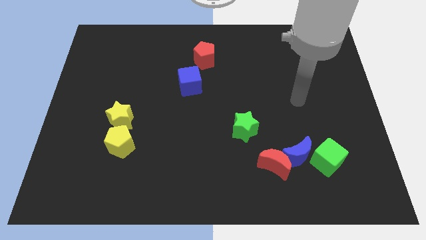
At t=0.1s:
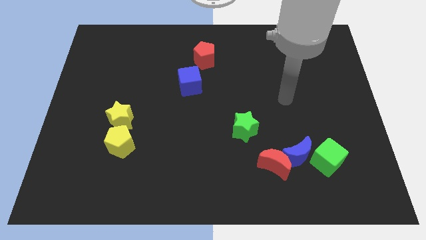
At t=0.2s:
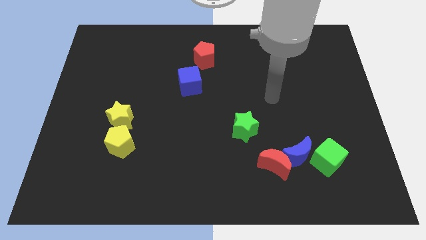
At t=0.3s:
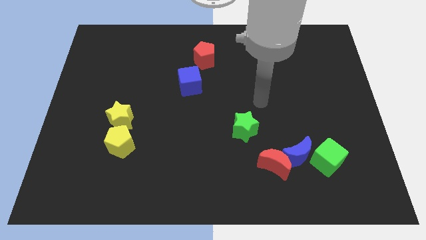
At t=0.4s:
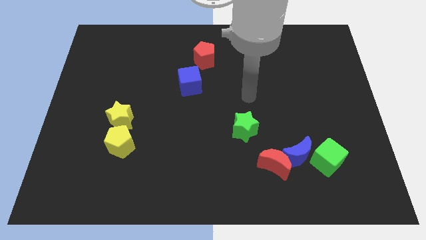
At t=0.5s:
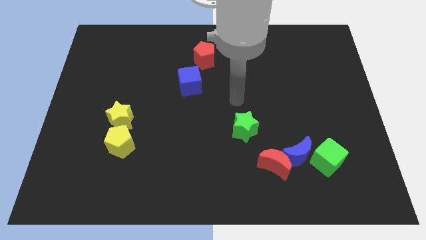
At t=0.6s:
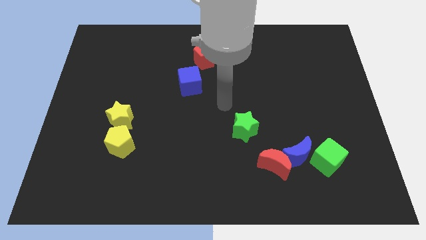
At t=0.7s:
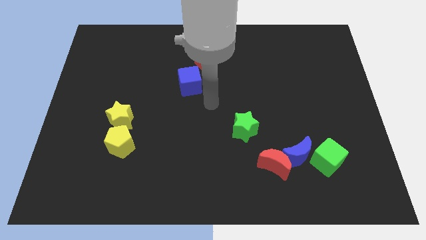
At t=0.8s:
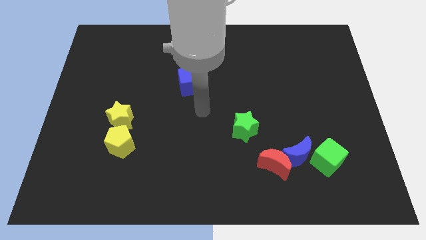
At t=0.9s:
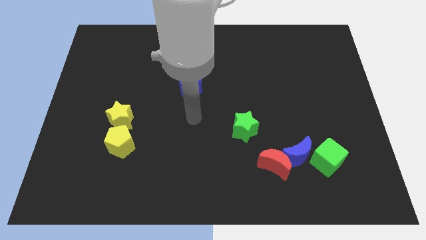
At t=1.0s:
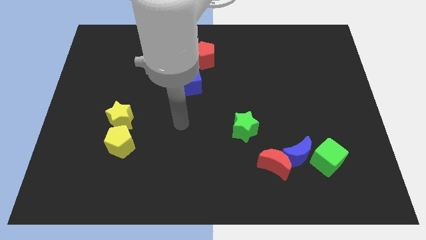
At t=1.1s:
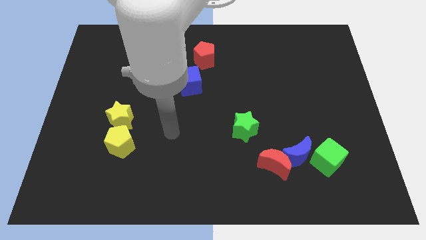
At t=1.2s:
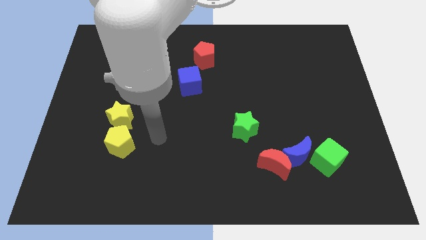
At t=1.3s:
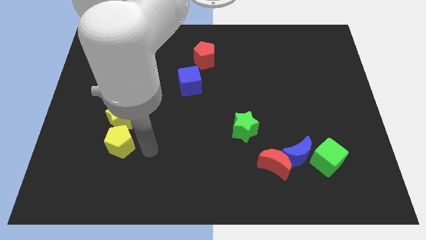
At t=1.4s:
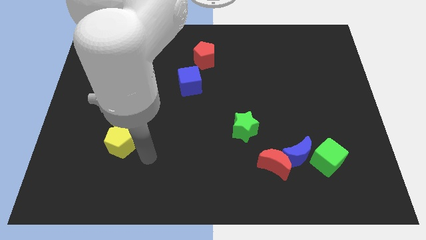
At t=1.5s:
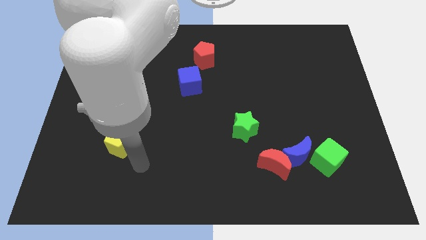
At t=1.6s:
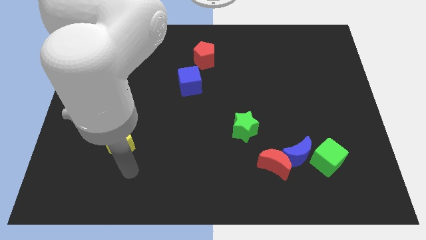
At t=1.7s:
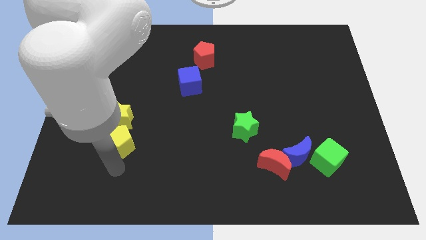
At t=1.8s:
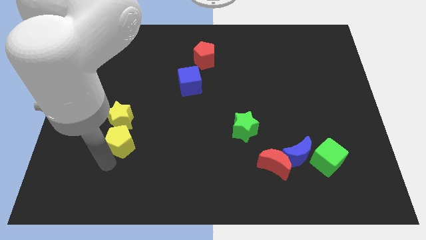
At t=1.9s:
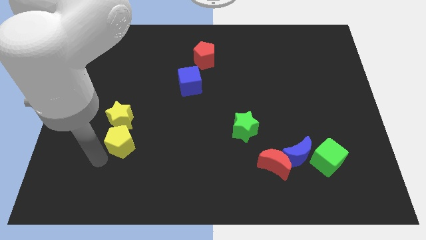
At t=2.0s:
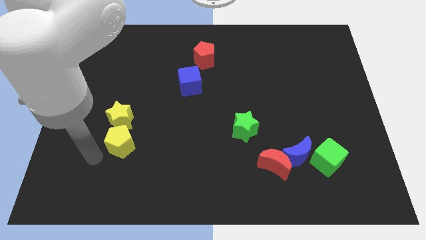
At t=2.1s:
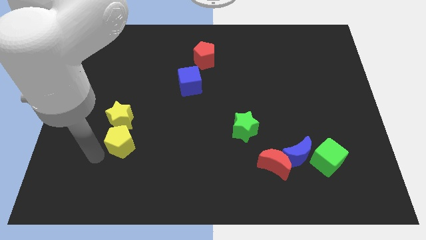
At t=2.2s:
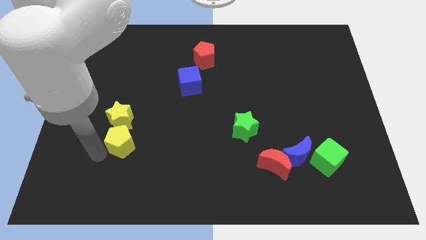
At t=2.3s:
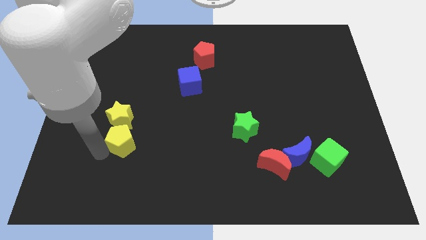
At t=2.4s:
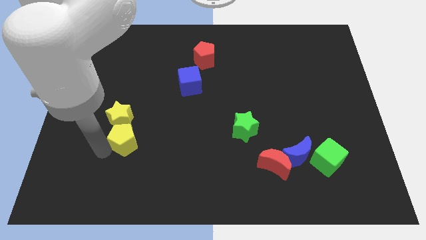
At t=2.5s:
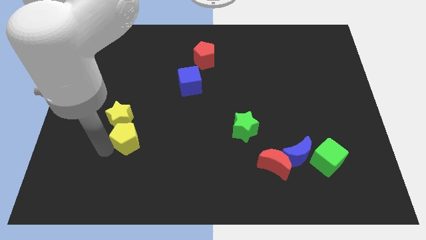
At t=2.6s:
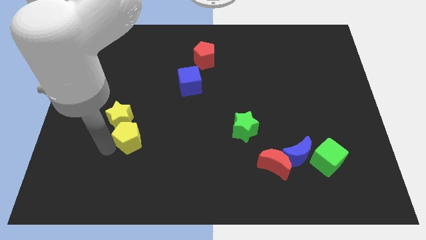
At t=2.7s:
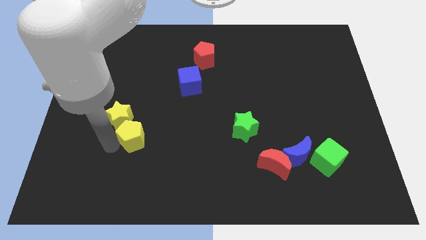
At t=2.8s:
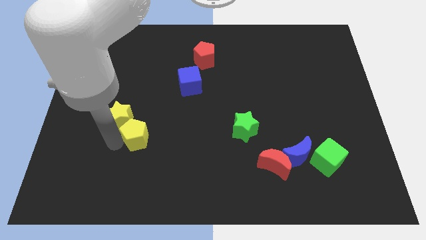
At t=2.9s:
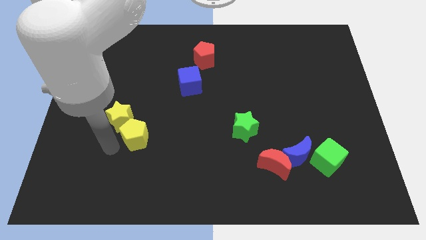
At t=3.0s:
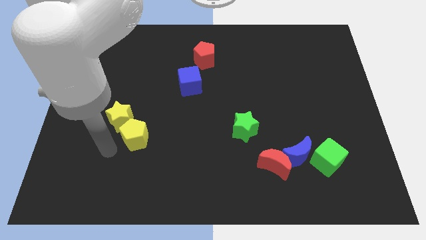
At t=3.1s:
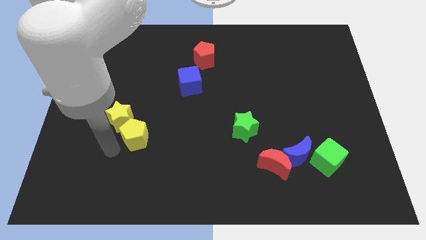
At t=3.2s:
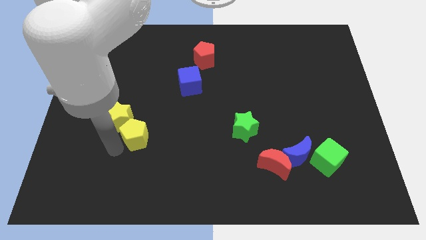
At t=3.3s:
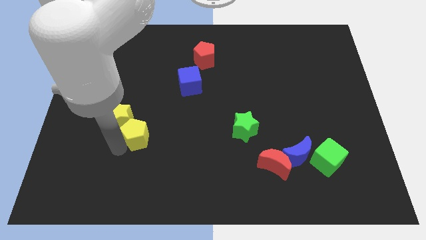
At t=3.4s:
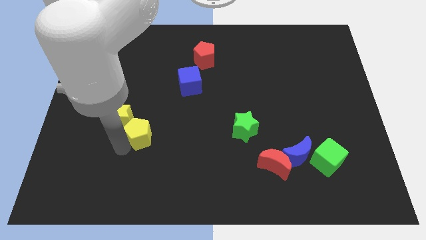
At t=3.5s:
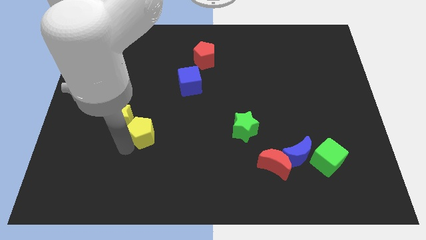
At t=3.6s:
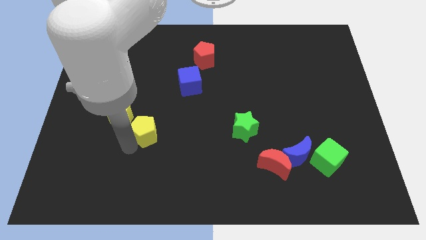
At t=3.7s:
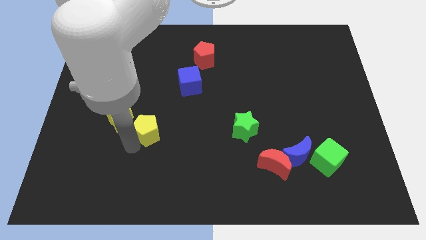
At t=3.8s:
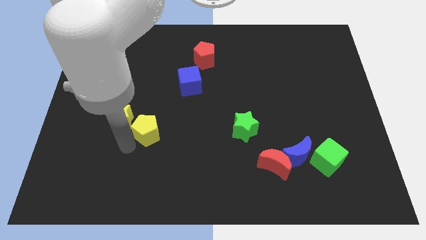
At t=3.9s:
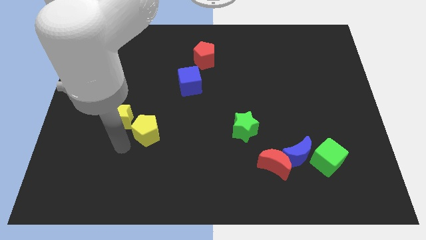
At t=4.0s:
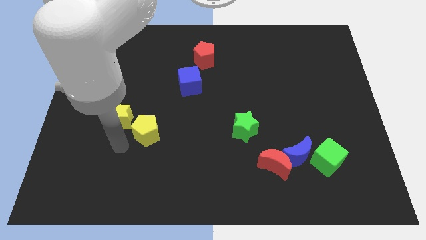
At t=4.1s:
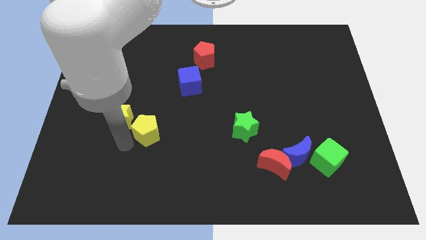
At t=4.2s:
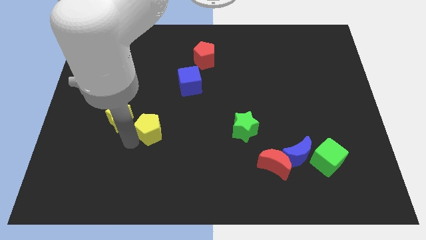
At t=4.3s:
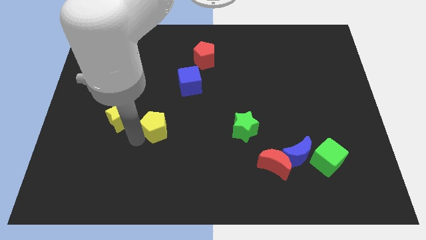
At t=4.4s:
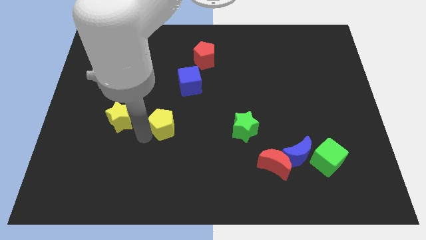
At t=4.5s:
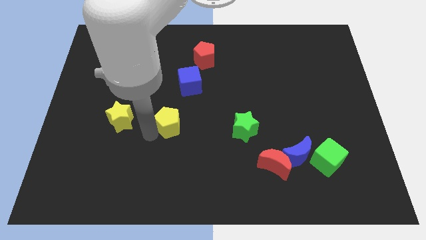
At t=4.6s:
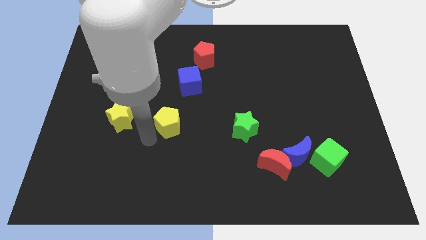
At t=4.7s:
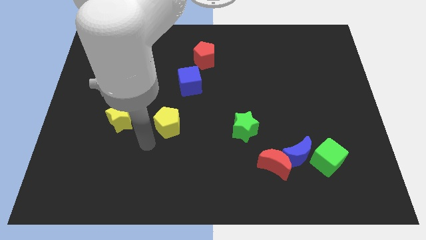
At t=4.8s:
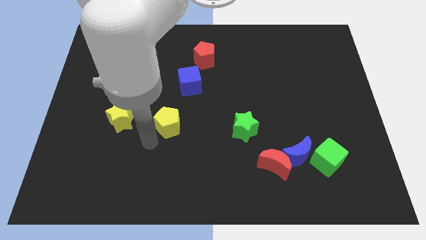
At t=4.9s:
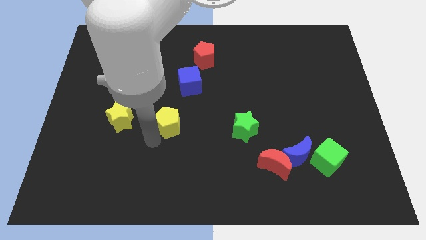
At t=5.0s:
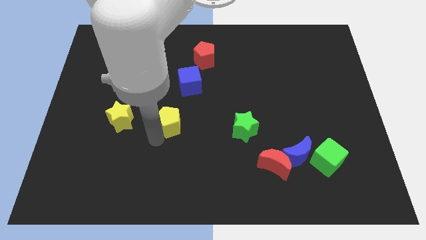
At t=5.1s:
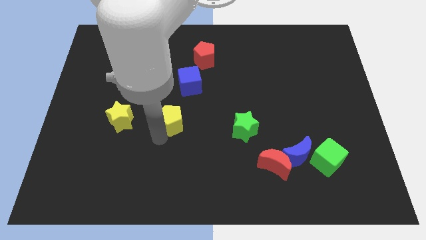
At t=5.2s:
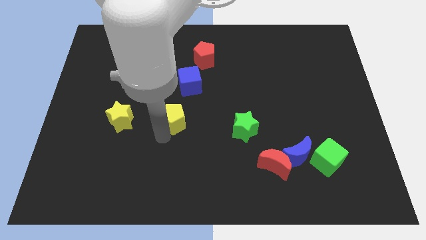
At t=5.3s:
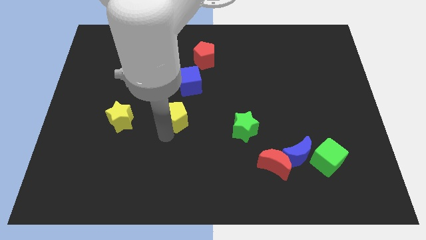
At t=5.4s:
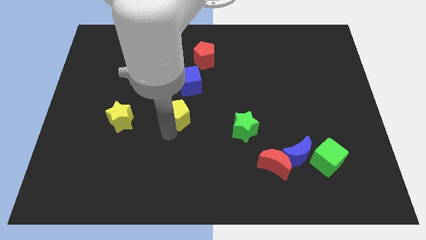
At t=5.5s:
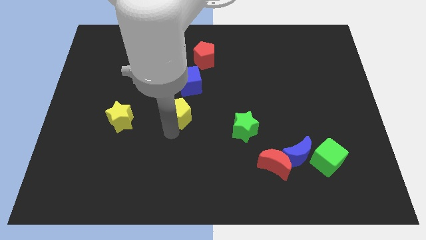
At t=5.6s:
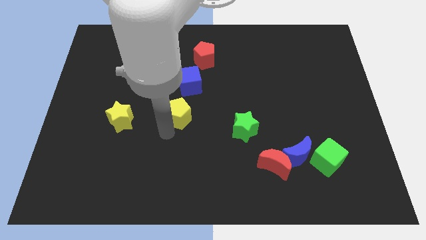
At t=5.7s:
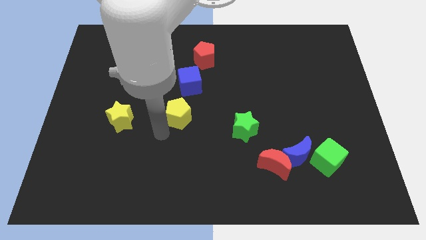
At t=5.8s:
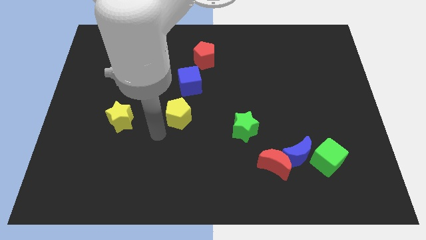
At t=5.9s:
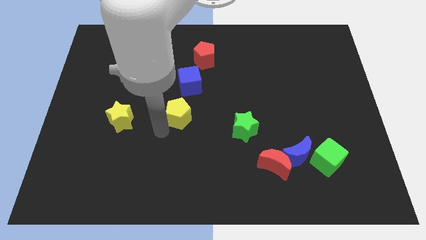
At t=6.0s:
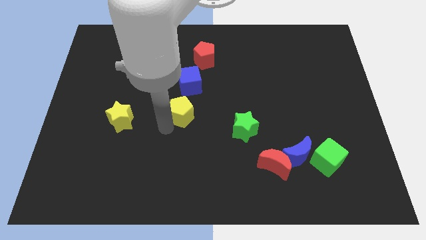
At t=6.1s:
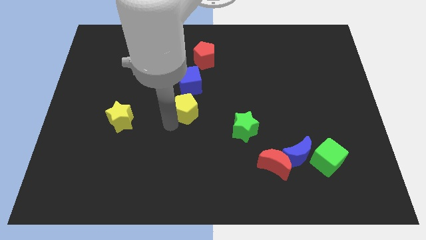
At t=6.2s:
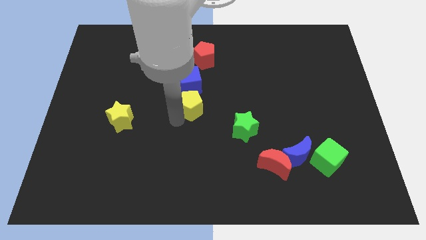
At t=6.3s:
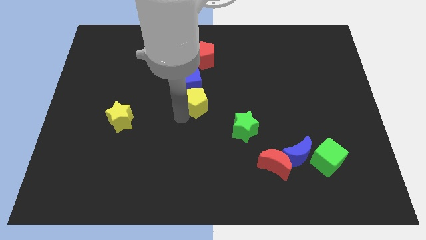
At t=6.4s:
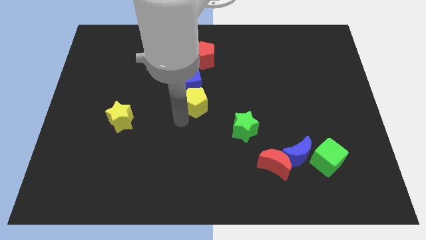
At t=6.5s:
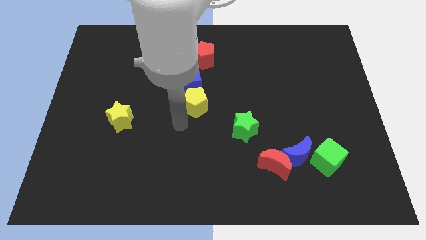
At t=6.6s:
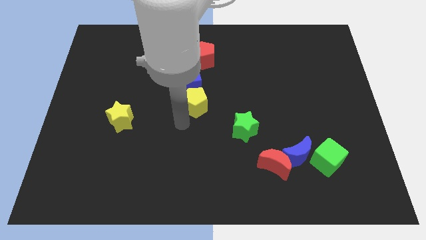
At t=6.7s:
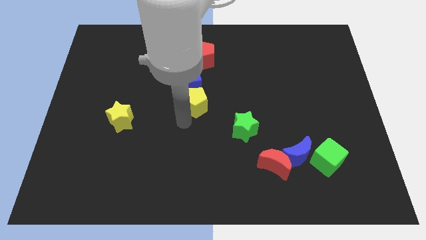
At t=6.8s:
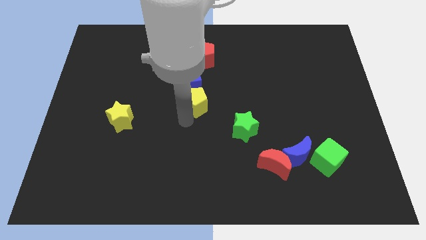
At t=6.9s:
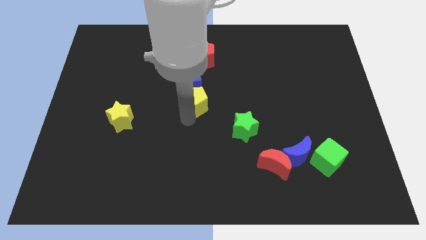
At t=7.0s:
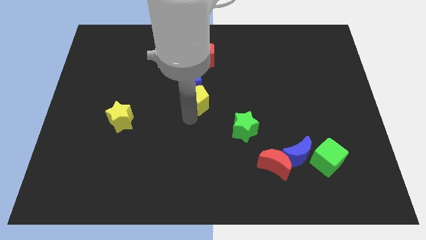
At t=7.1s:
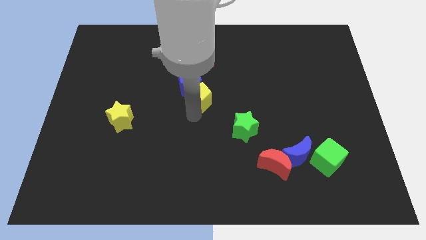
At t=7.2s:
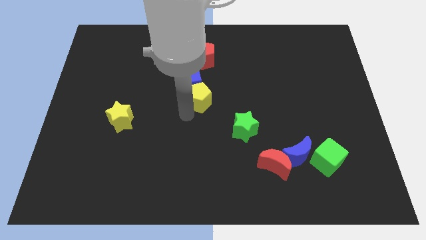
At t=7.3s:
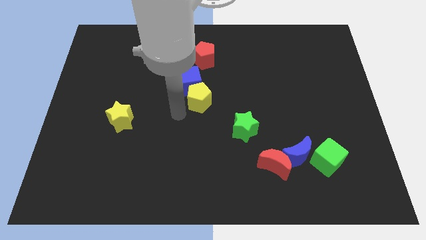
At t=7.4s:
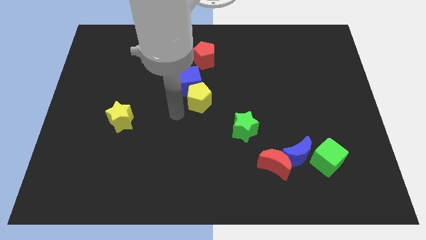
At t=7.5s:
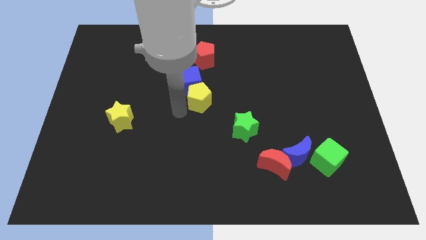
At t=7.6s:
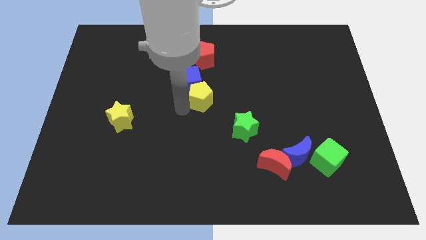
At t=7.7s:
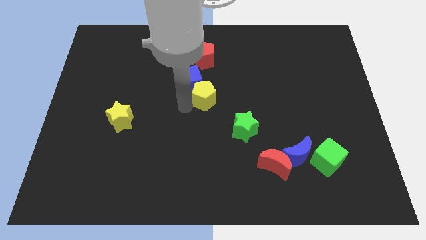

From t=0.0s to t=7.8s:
move the yellow pentagon to the right side of the blue cube
